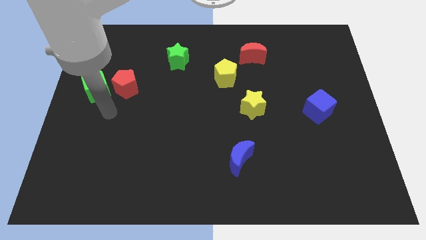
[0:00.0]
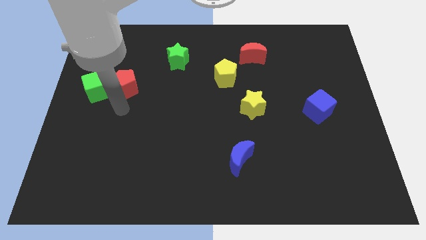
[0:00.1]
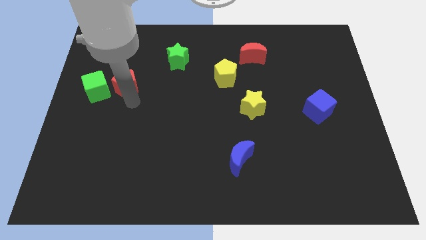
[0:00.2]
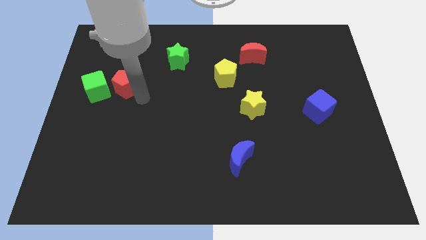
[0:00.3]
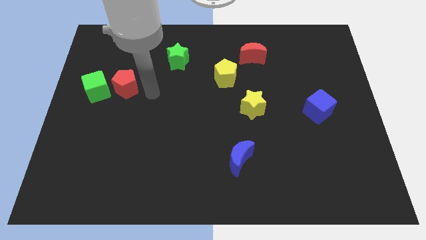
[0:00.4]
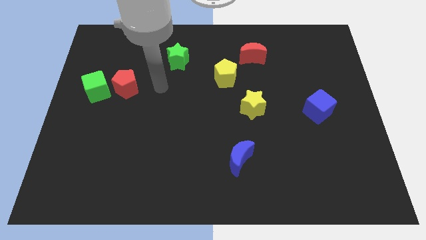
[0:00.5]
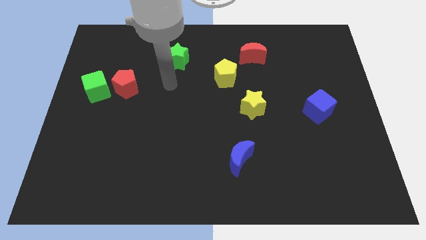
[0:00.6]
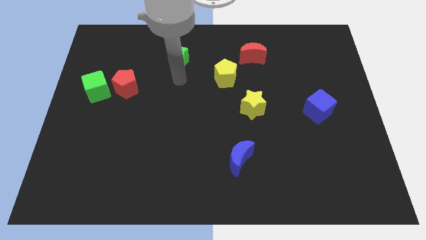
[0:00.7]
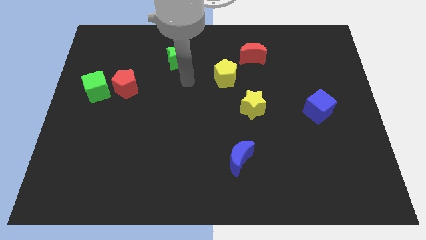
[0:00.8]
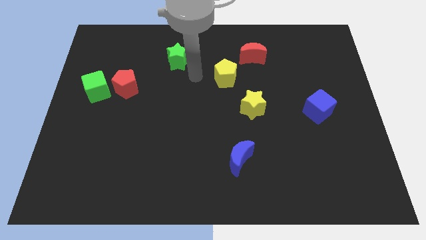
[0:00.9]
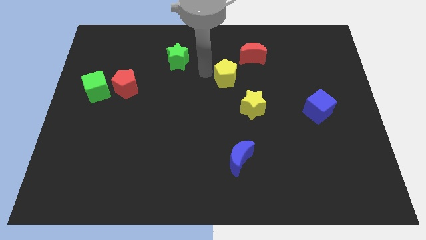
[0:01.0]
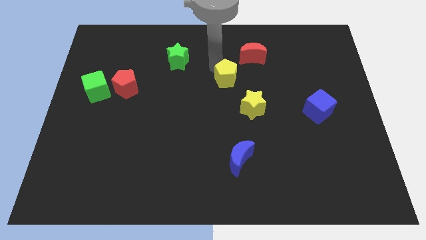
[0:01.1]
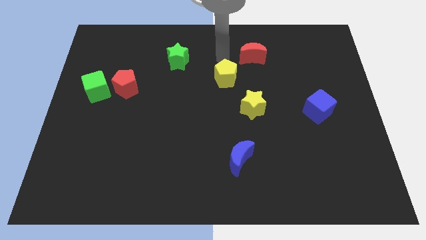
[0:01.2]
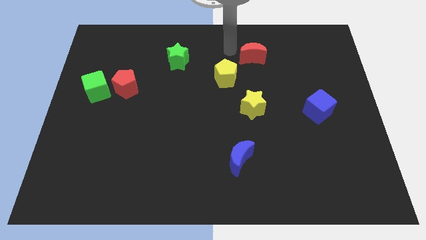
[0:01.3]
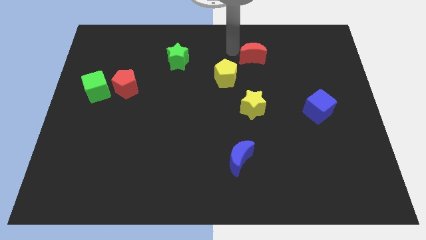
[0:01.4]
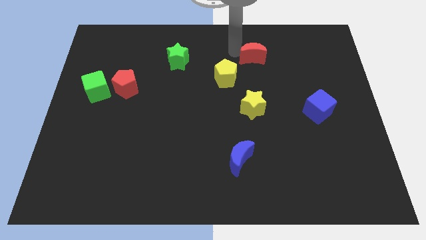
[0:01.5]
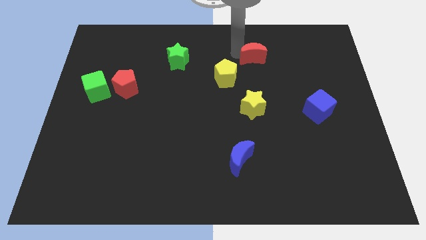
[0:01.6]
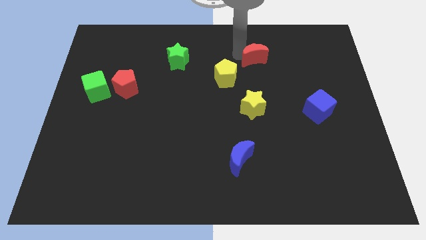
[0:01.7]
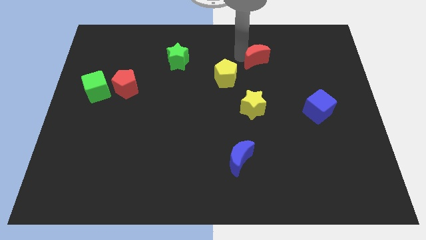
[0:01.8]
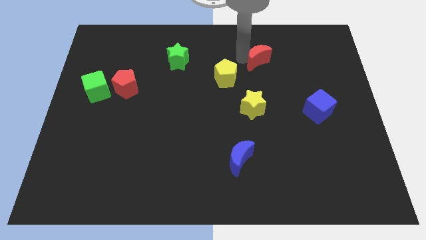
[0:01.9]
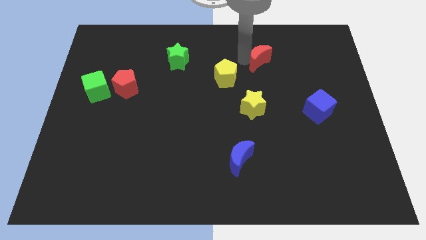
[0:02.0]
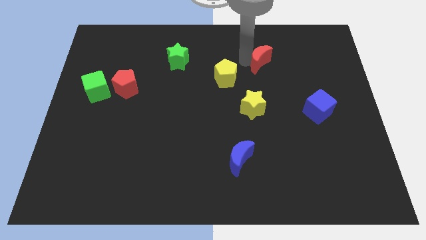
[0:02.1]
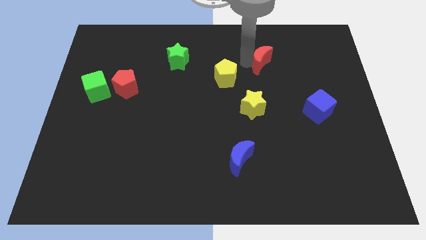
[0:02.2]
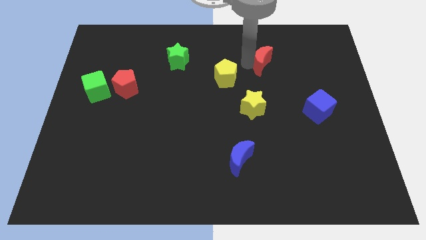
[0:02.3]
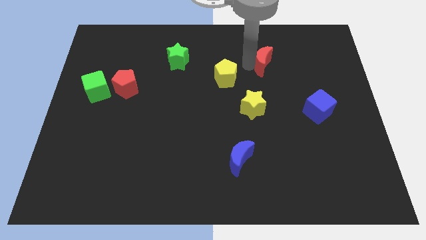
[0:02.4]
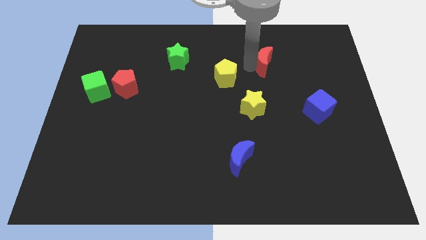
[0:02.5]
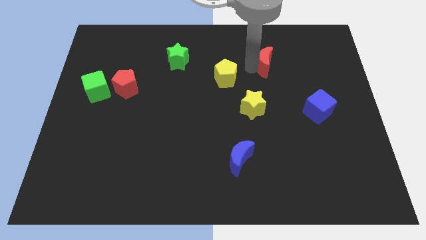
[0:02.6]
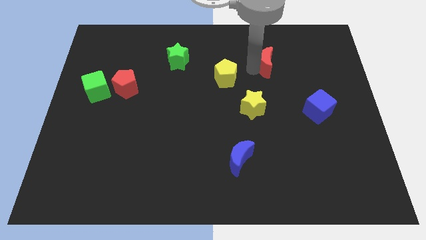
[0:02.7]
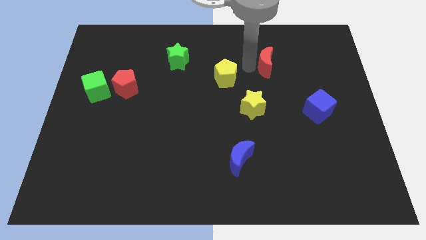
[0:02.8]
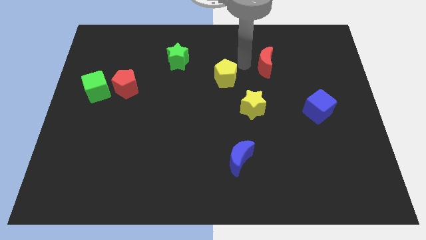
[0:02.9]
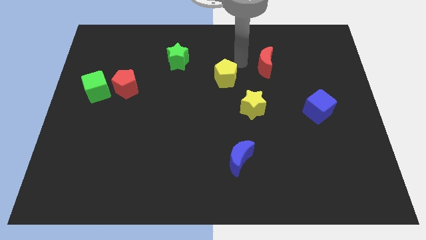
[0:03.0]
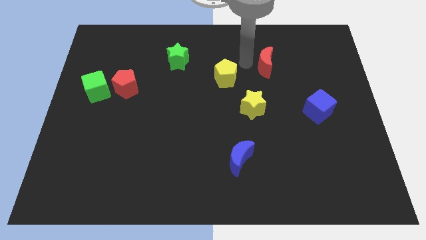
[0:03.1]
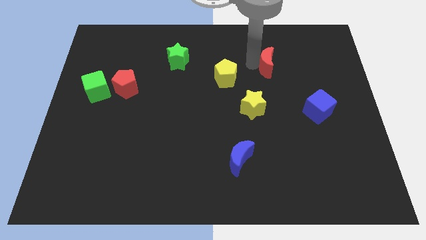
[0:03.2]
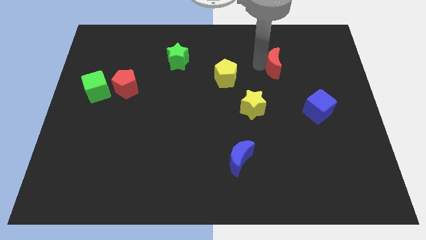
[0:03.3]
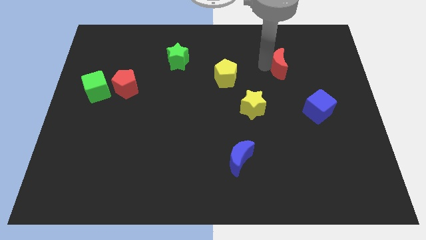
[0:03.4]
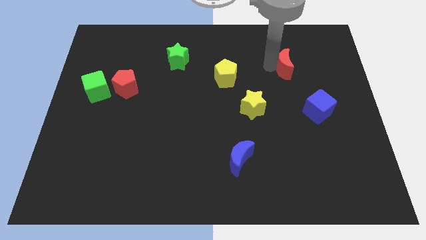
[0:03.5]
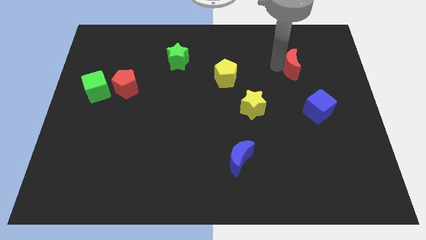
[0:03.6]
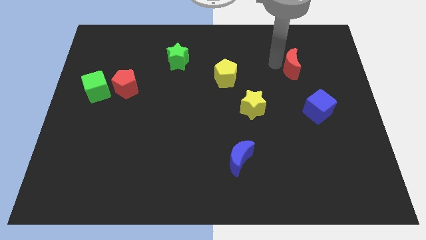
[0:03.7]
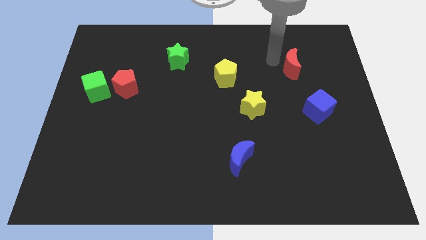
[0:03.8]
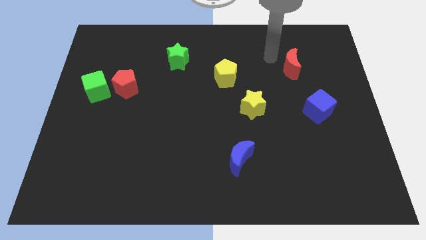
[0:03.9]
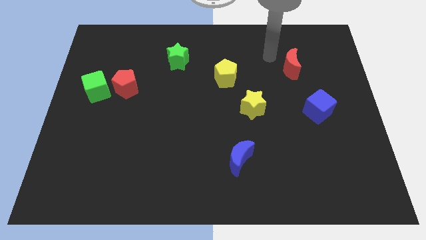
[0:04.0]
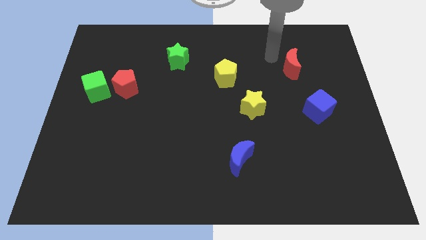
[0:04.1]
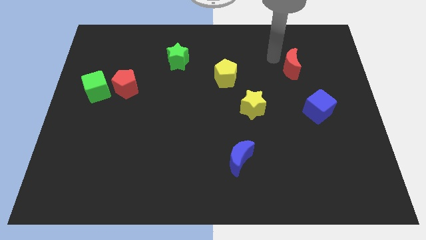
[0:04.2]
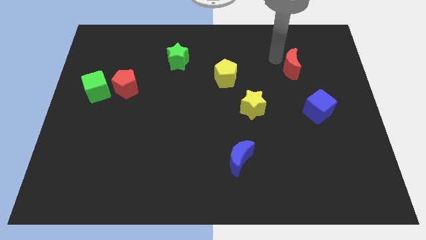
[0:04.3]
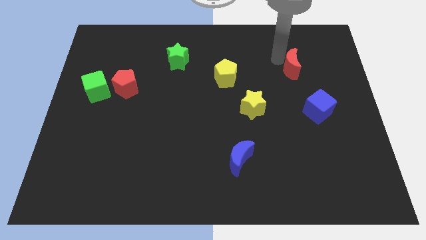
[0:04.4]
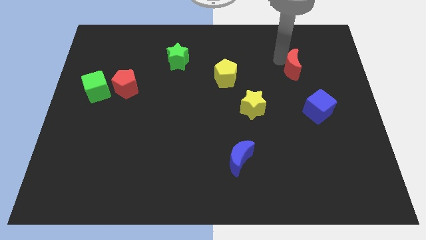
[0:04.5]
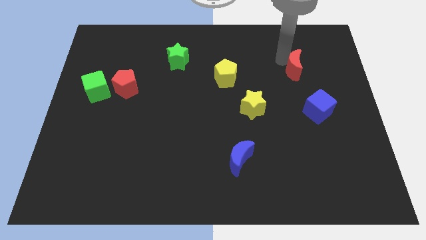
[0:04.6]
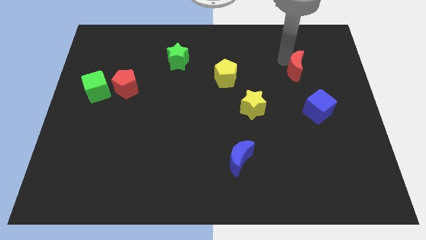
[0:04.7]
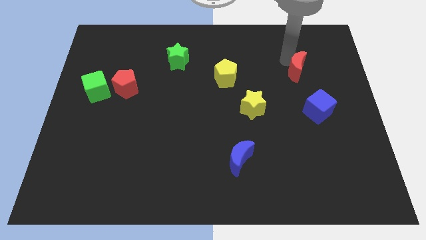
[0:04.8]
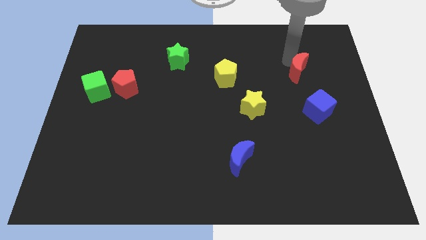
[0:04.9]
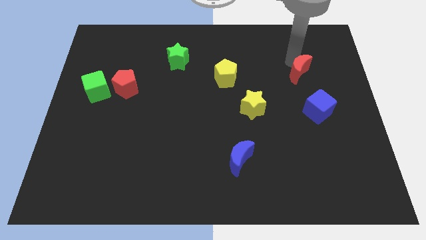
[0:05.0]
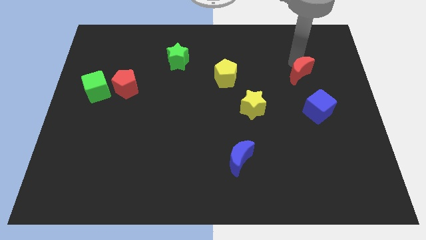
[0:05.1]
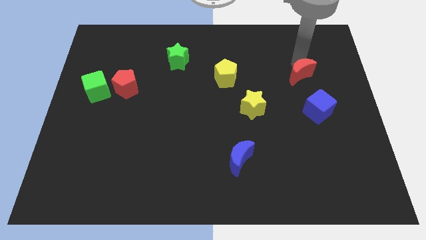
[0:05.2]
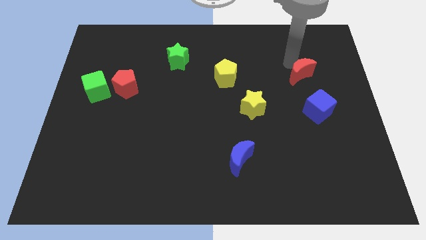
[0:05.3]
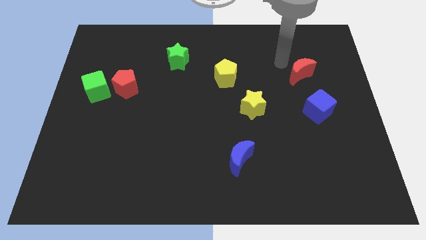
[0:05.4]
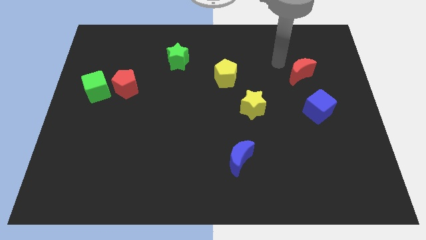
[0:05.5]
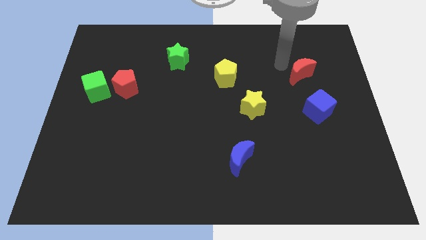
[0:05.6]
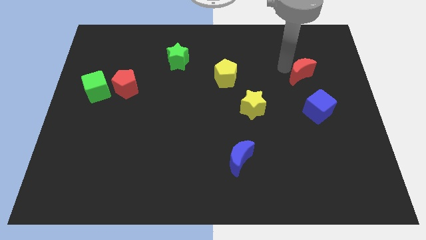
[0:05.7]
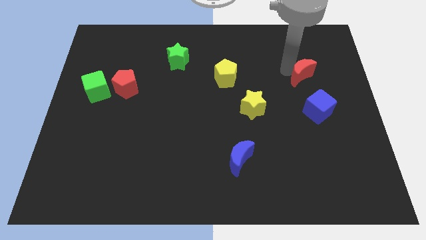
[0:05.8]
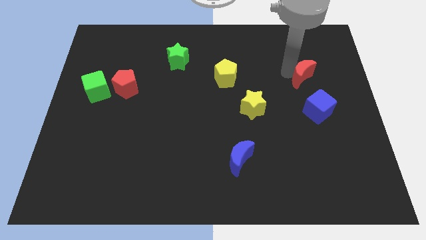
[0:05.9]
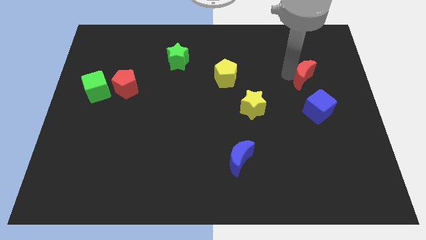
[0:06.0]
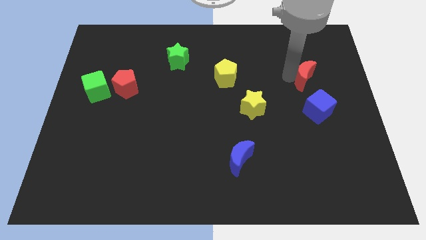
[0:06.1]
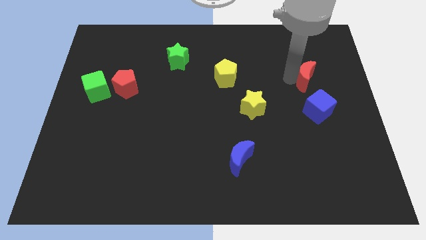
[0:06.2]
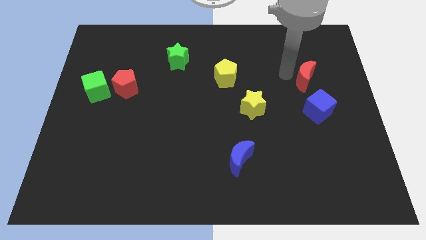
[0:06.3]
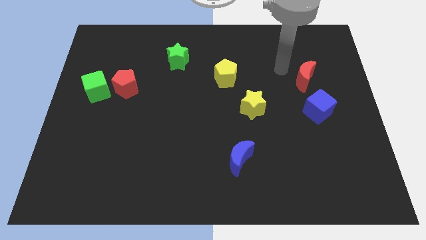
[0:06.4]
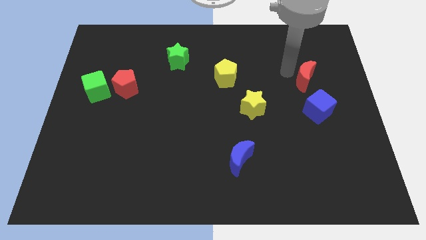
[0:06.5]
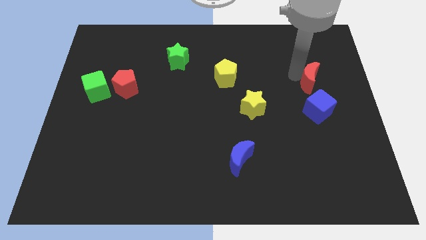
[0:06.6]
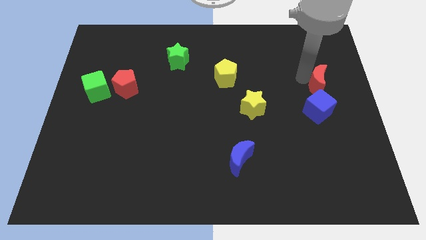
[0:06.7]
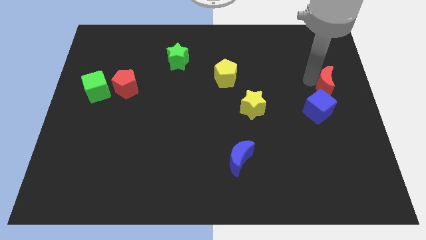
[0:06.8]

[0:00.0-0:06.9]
slide the red moon to the right side
